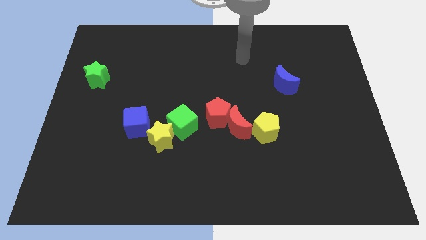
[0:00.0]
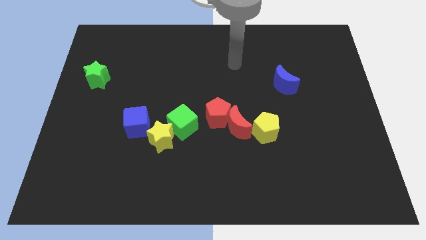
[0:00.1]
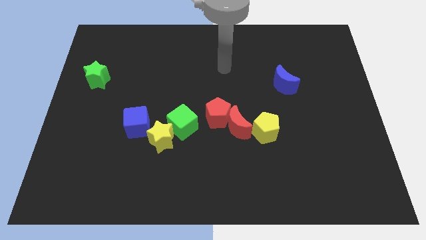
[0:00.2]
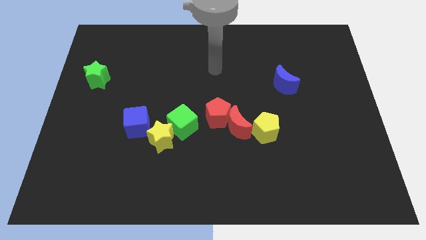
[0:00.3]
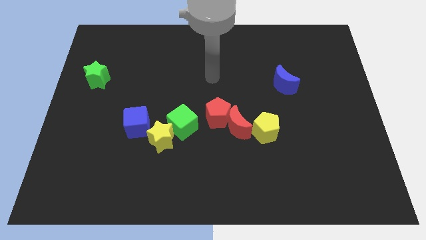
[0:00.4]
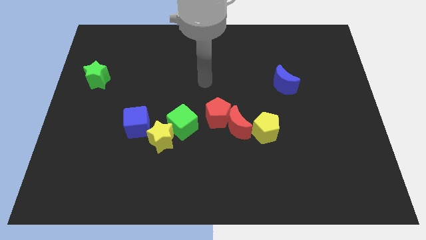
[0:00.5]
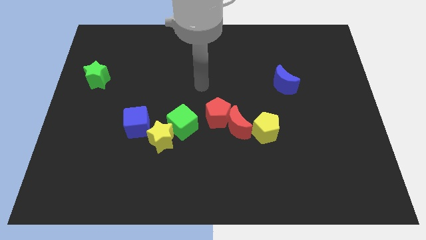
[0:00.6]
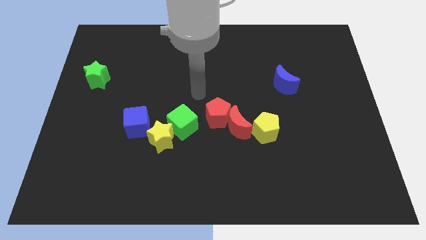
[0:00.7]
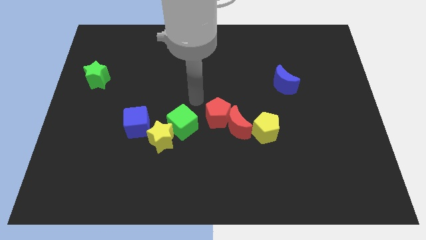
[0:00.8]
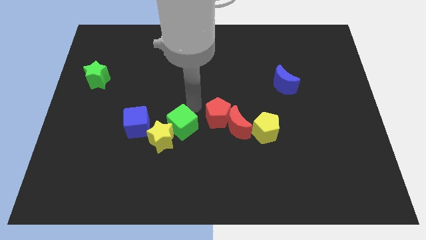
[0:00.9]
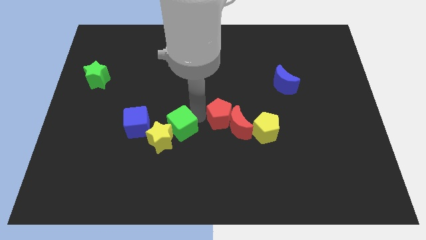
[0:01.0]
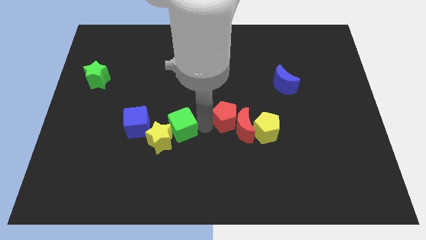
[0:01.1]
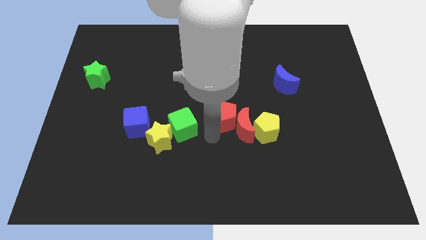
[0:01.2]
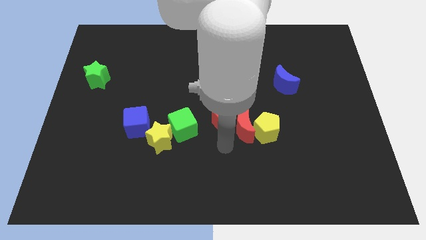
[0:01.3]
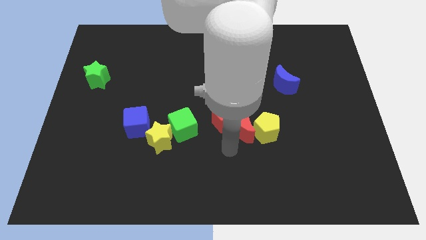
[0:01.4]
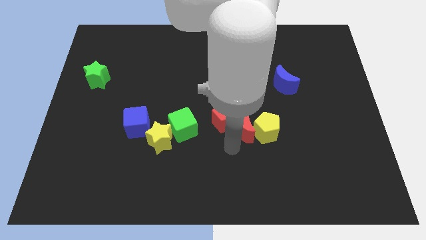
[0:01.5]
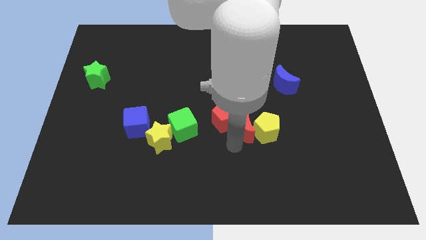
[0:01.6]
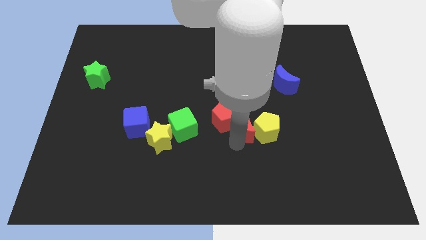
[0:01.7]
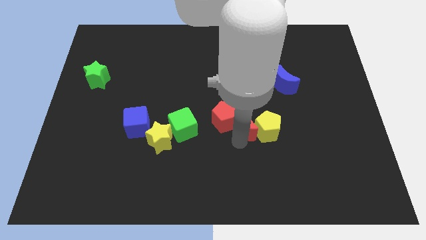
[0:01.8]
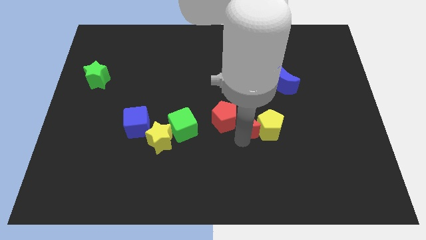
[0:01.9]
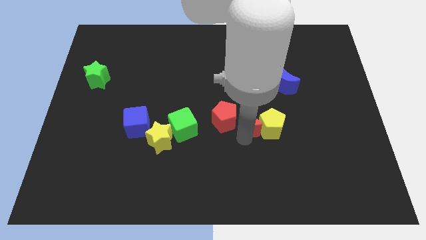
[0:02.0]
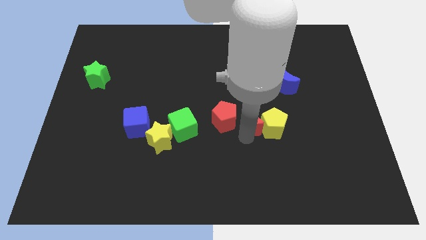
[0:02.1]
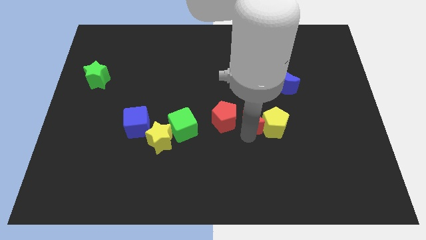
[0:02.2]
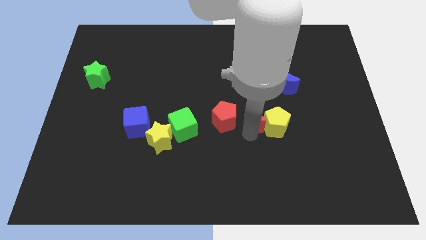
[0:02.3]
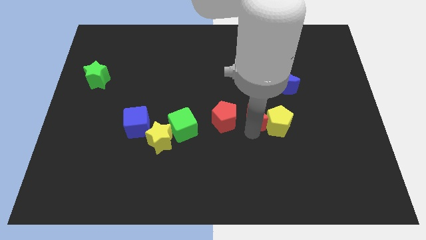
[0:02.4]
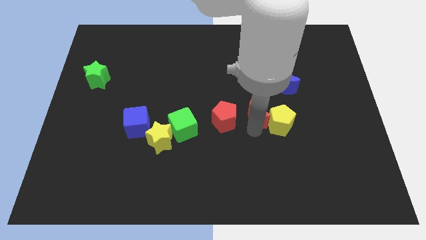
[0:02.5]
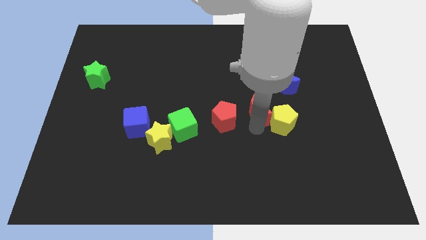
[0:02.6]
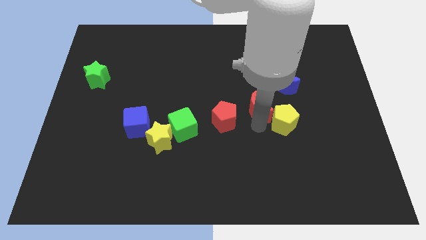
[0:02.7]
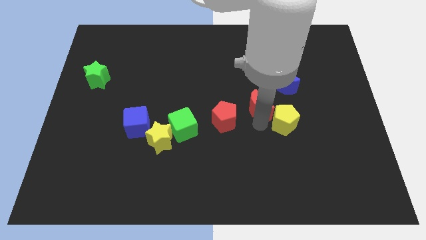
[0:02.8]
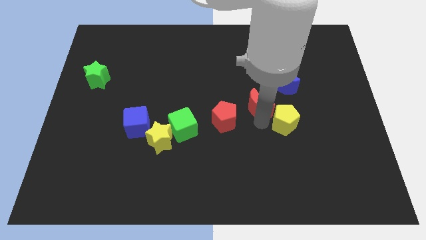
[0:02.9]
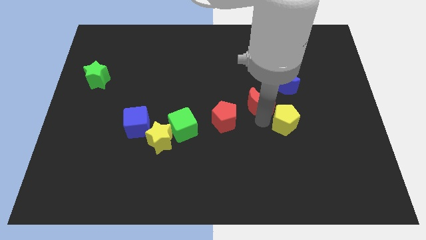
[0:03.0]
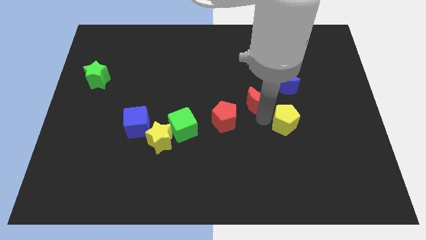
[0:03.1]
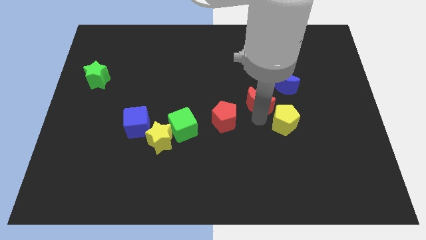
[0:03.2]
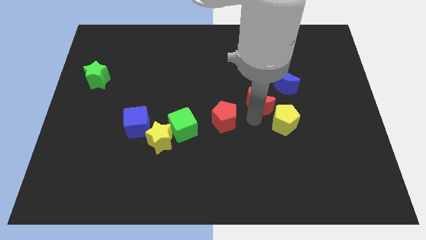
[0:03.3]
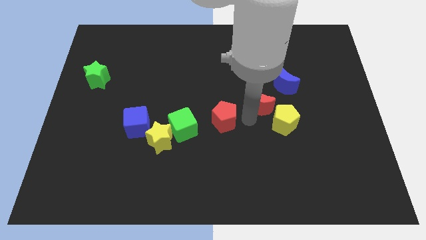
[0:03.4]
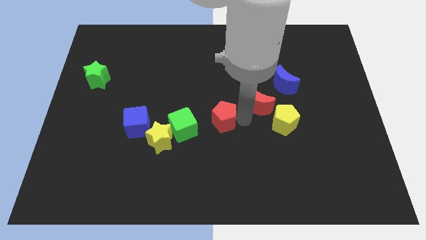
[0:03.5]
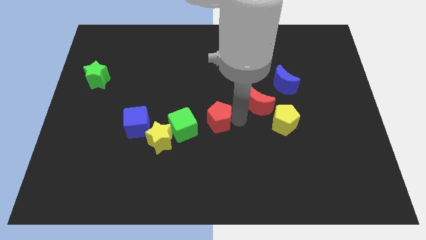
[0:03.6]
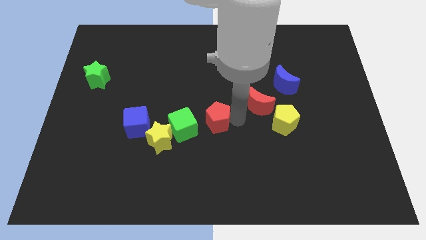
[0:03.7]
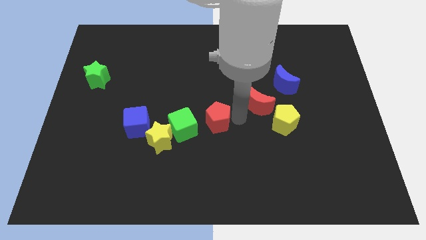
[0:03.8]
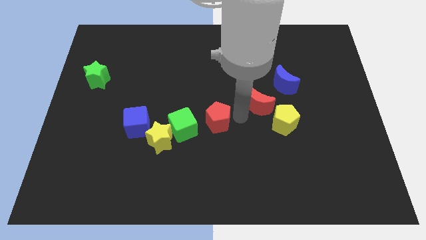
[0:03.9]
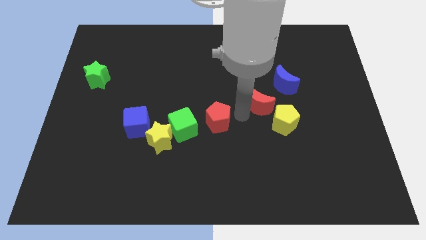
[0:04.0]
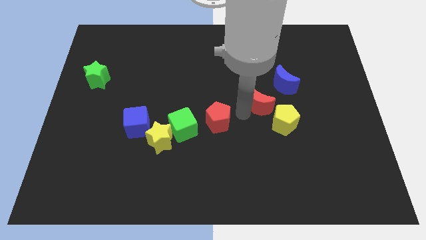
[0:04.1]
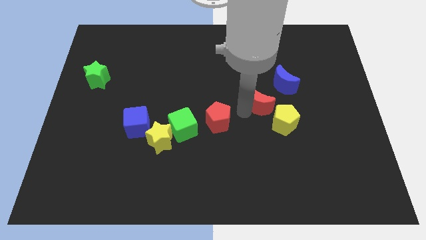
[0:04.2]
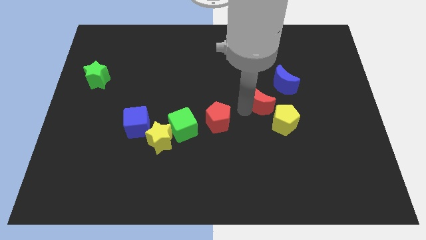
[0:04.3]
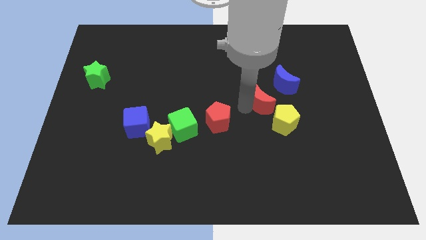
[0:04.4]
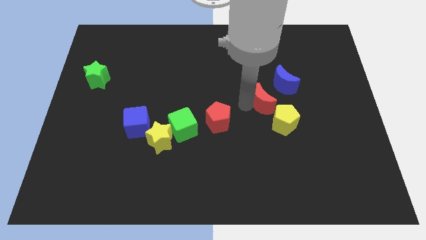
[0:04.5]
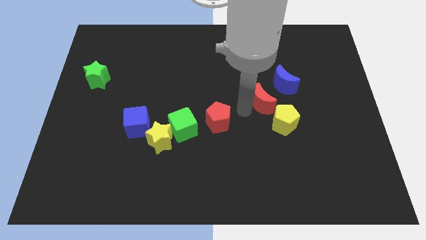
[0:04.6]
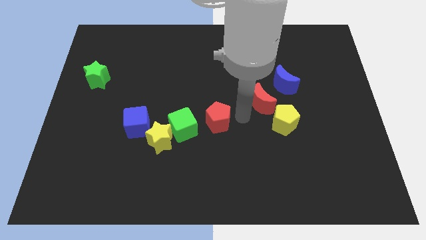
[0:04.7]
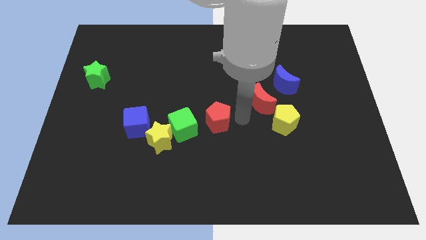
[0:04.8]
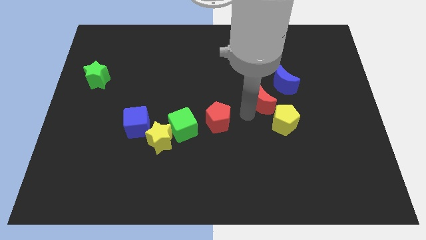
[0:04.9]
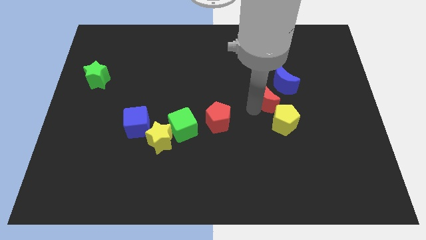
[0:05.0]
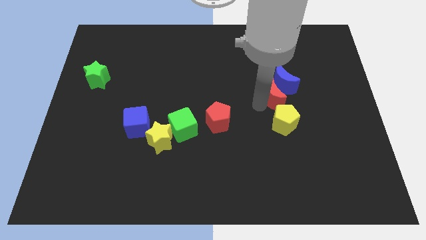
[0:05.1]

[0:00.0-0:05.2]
put the red moon towards the blue moon

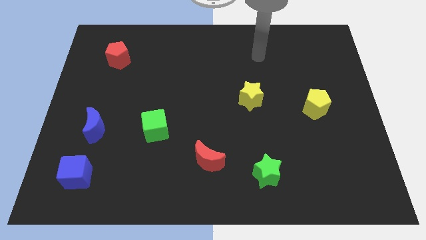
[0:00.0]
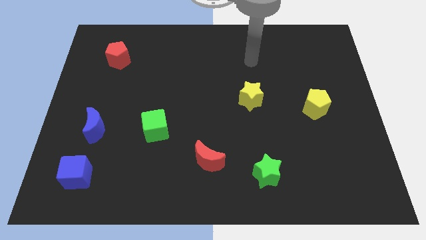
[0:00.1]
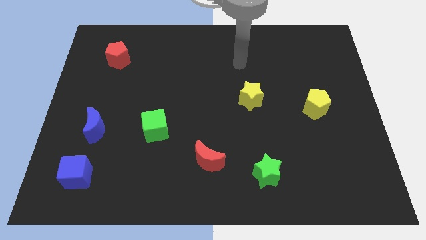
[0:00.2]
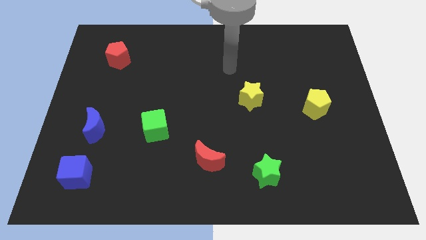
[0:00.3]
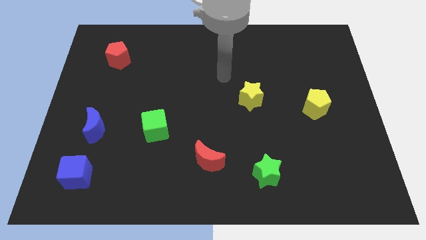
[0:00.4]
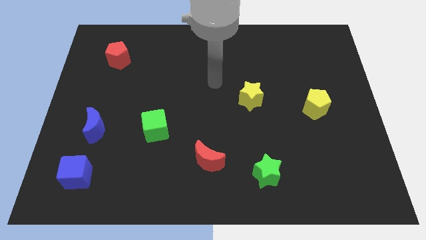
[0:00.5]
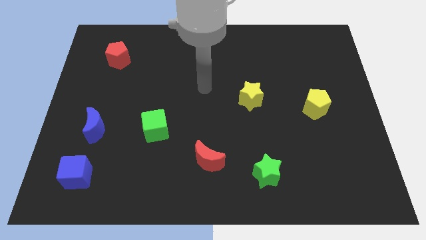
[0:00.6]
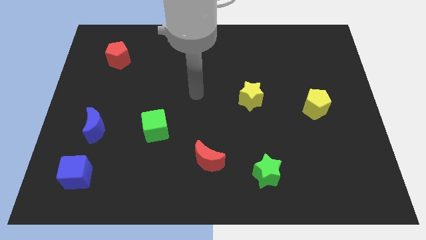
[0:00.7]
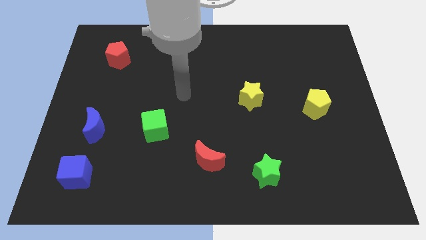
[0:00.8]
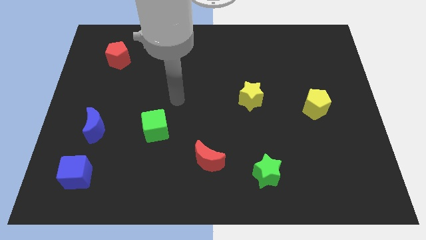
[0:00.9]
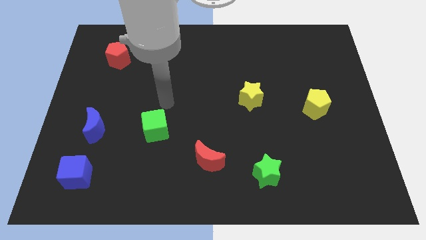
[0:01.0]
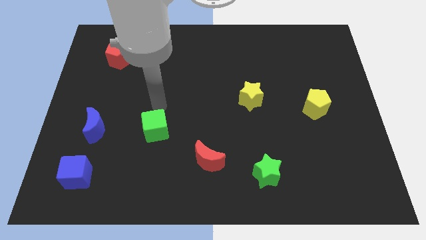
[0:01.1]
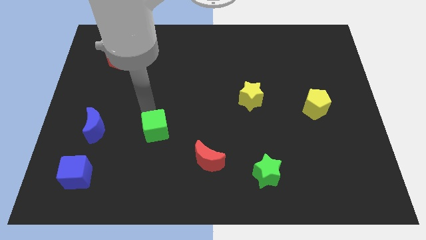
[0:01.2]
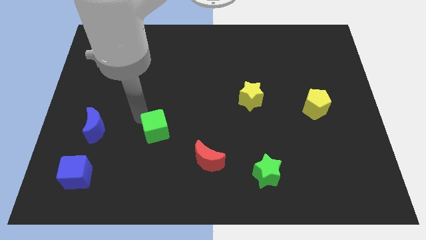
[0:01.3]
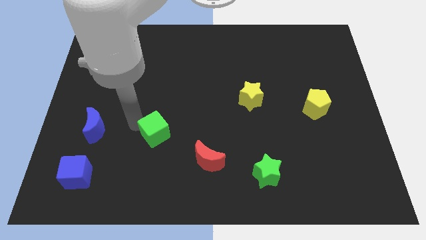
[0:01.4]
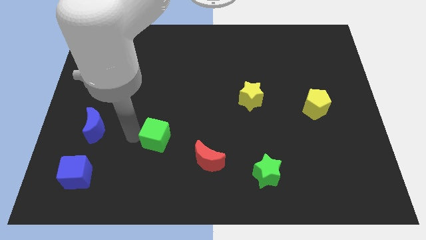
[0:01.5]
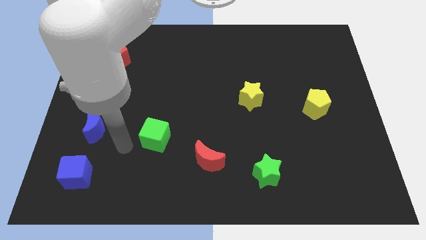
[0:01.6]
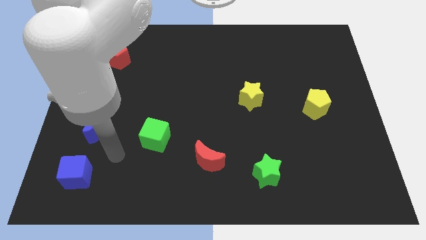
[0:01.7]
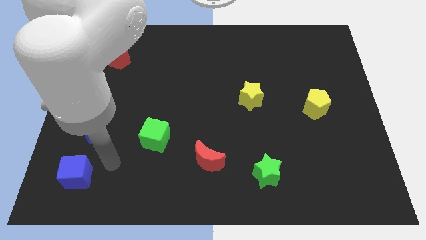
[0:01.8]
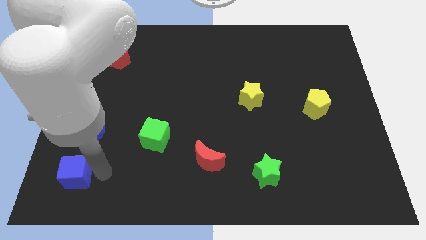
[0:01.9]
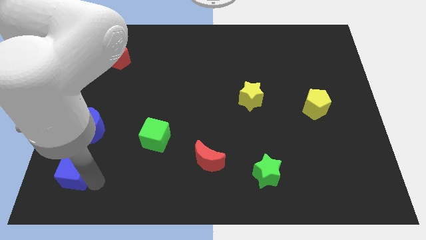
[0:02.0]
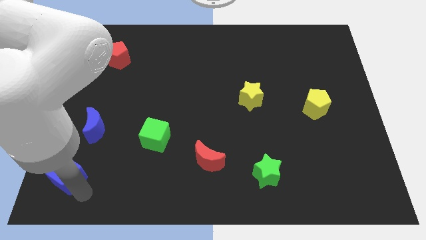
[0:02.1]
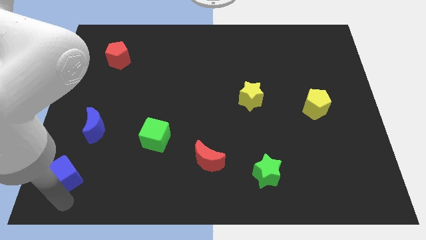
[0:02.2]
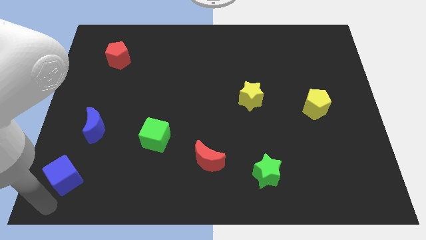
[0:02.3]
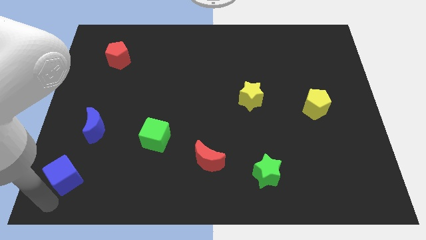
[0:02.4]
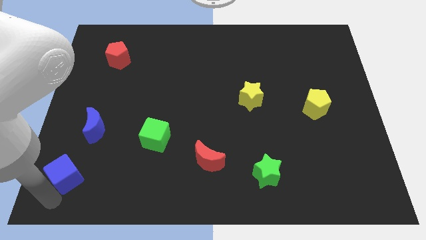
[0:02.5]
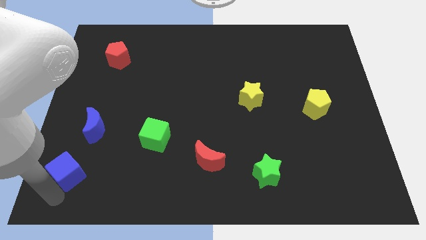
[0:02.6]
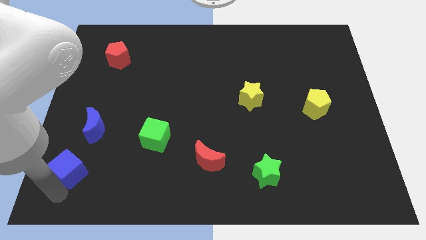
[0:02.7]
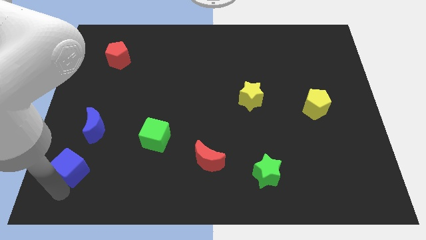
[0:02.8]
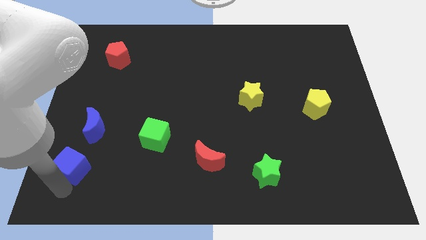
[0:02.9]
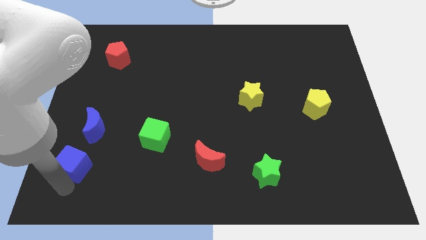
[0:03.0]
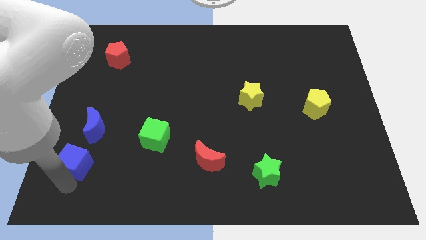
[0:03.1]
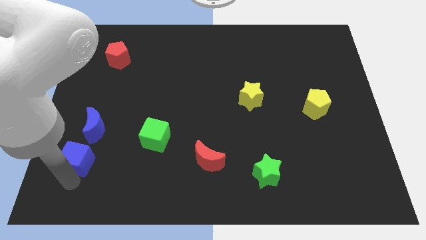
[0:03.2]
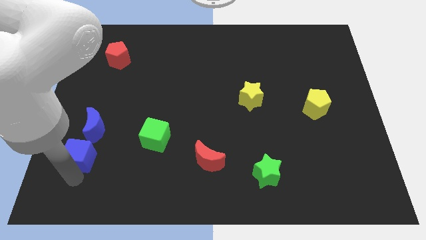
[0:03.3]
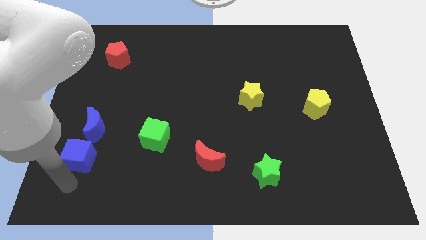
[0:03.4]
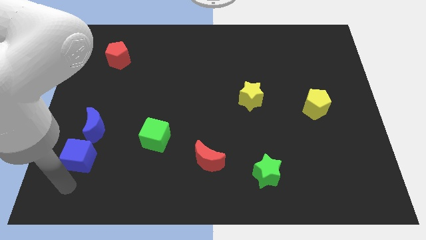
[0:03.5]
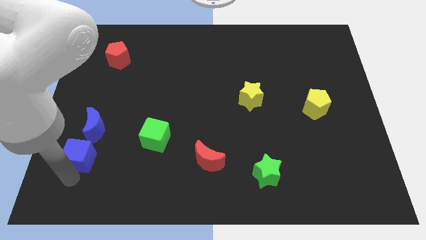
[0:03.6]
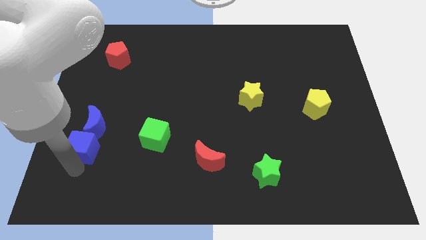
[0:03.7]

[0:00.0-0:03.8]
push the blue cube close to the blue moon
